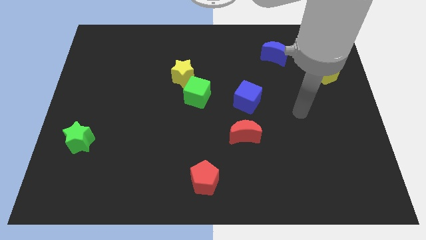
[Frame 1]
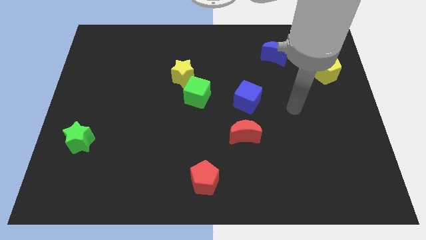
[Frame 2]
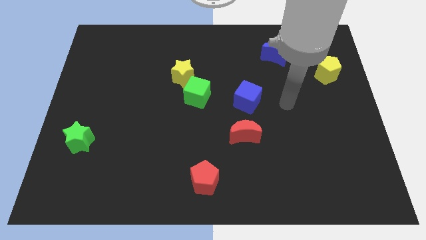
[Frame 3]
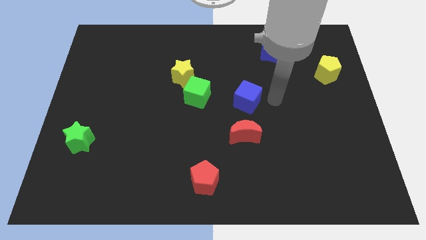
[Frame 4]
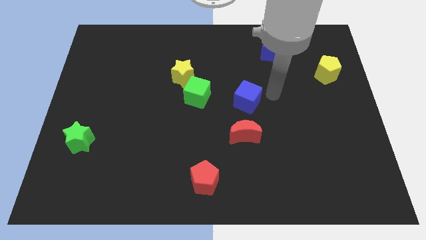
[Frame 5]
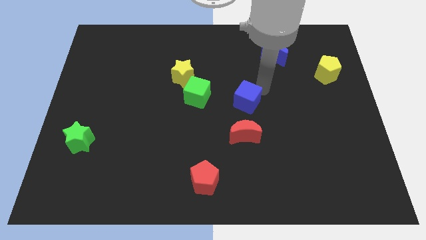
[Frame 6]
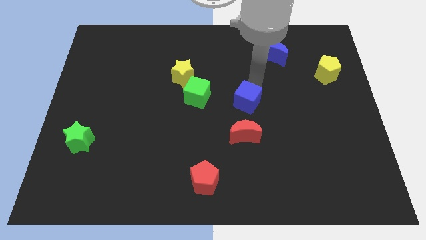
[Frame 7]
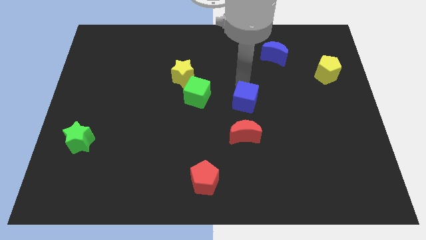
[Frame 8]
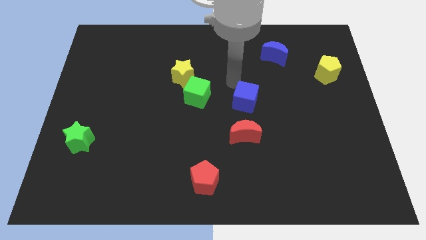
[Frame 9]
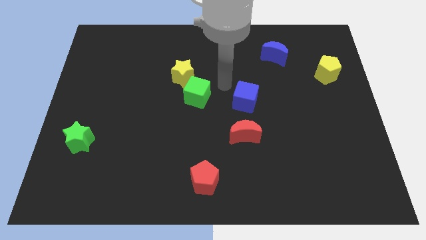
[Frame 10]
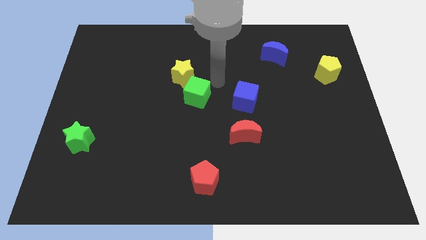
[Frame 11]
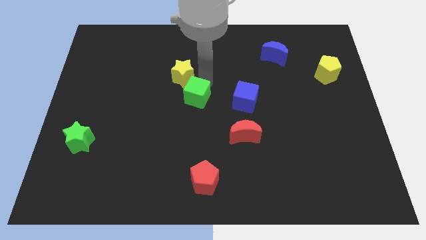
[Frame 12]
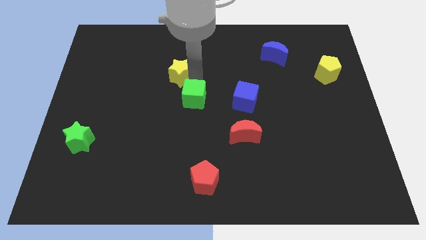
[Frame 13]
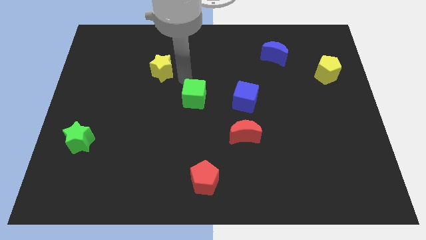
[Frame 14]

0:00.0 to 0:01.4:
pull the green cube apart from the yellow star

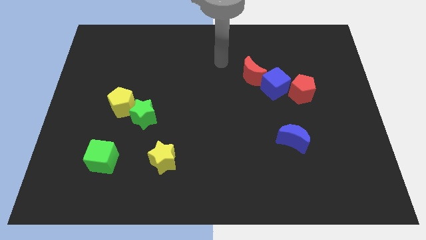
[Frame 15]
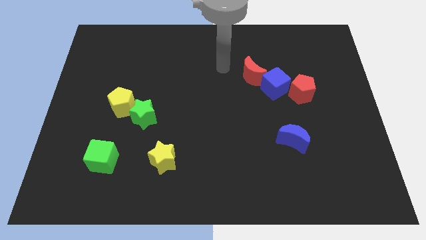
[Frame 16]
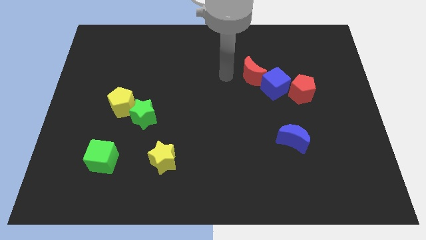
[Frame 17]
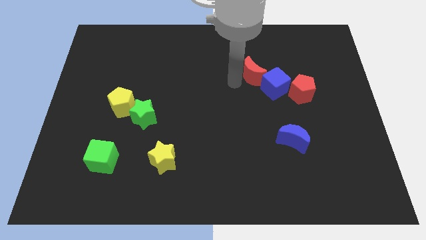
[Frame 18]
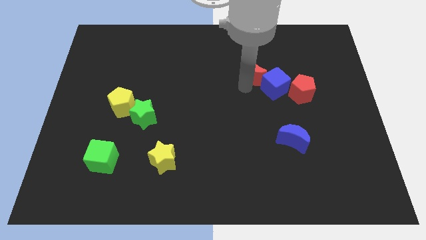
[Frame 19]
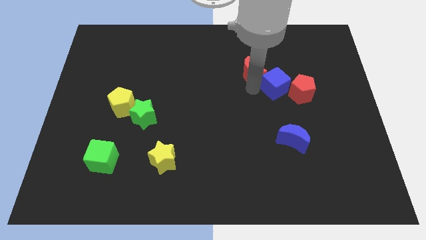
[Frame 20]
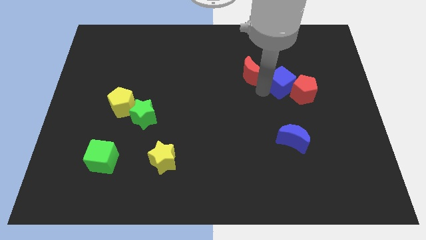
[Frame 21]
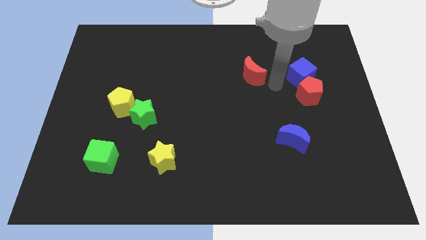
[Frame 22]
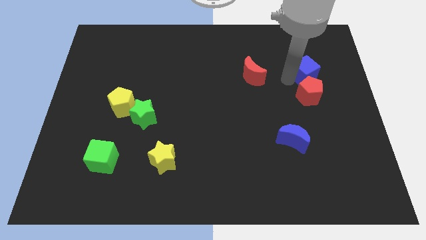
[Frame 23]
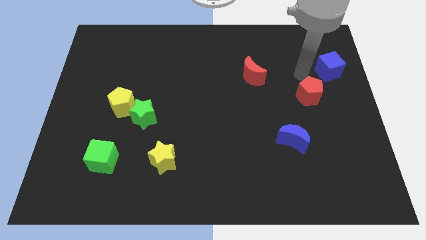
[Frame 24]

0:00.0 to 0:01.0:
separate the red pentagon from the blue cube

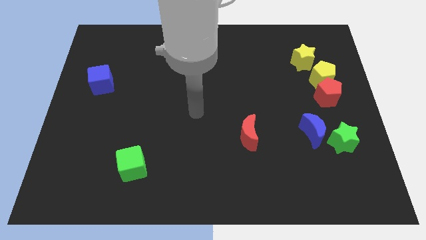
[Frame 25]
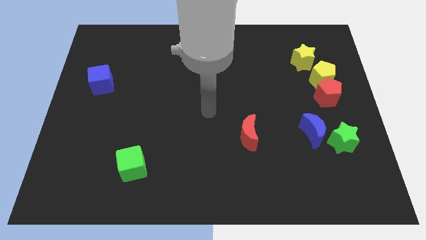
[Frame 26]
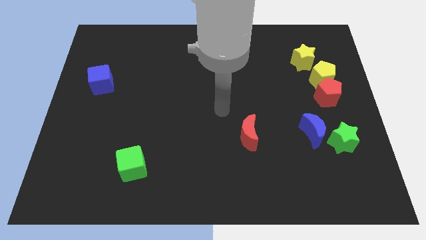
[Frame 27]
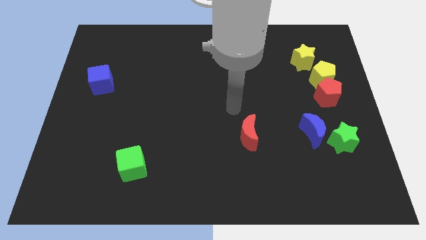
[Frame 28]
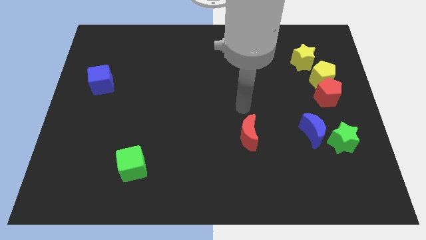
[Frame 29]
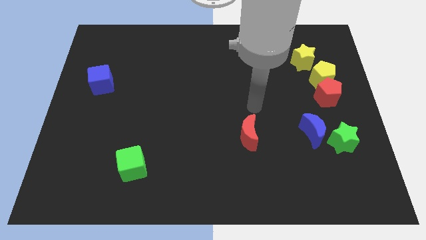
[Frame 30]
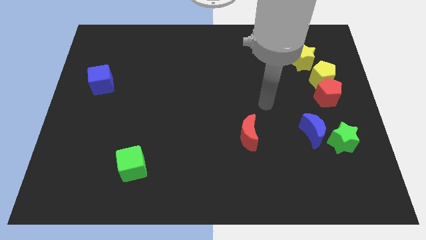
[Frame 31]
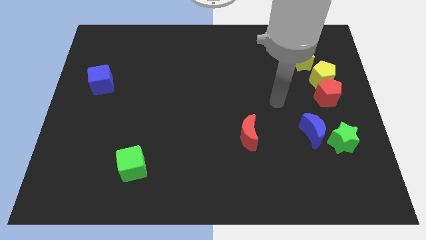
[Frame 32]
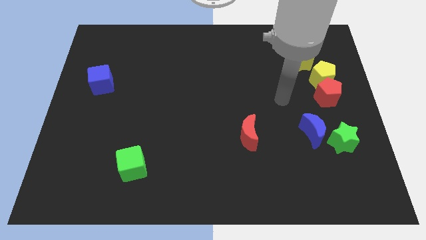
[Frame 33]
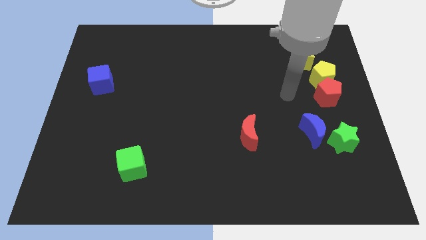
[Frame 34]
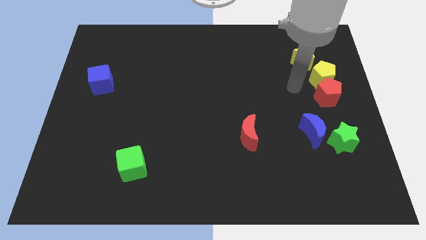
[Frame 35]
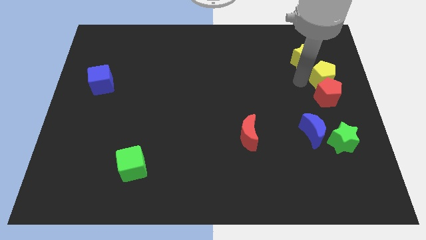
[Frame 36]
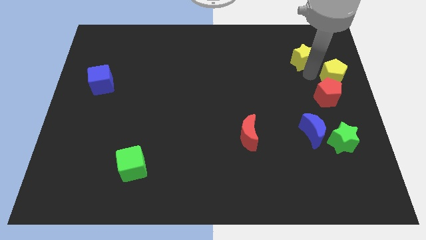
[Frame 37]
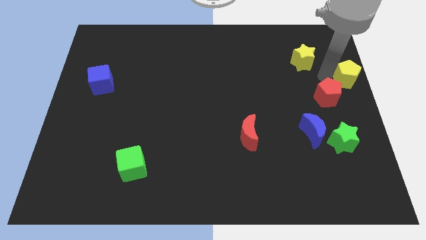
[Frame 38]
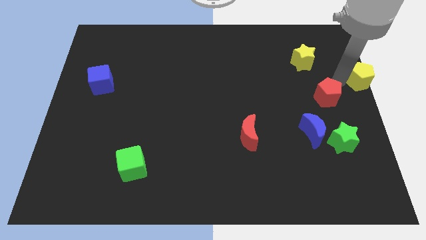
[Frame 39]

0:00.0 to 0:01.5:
pull the red pentagon apart from the yellow pentagon

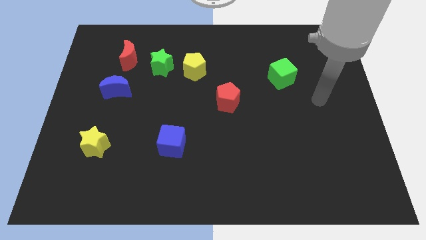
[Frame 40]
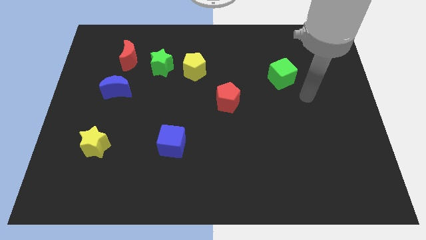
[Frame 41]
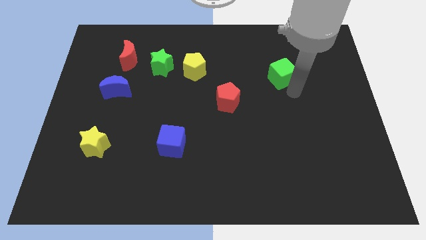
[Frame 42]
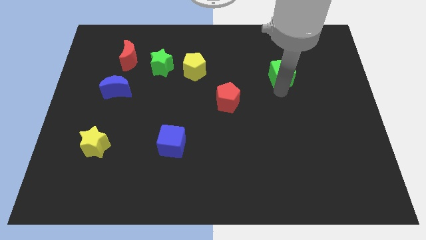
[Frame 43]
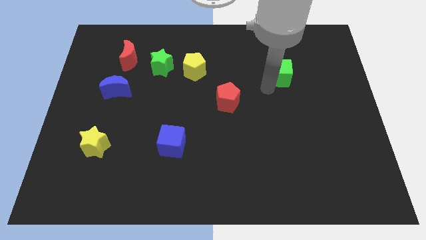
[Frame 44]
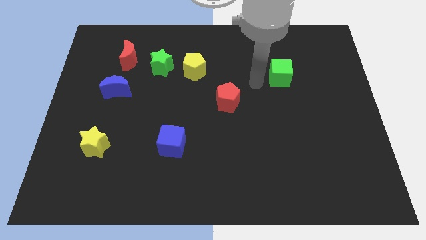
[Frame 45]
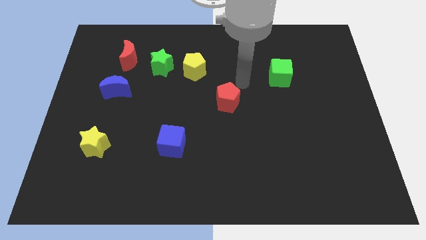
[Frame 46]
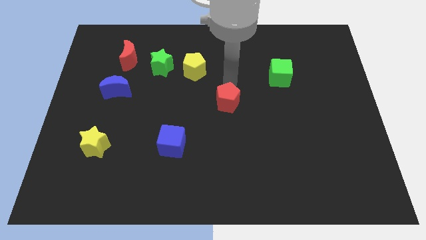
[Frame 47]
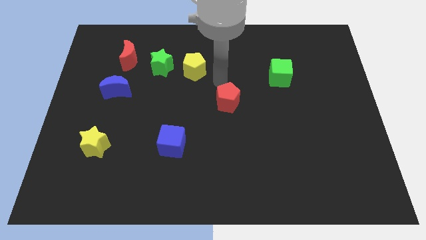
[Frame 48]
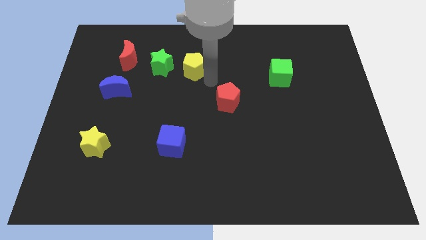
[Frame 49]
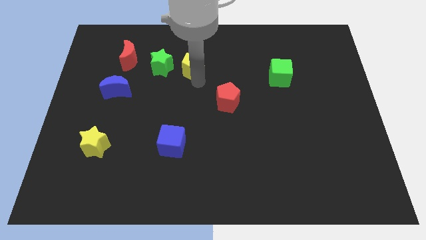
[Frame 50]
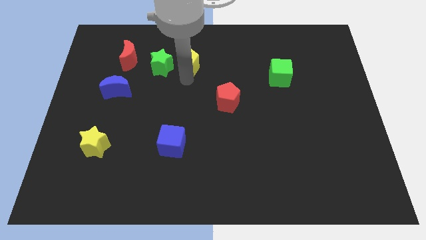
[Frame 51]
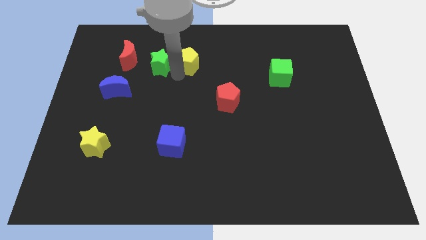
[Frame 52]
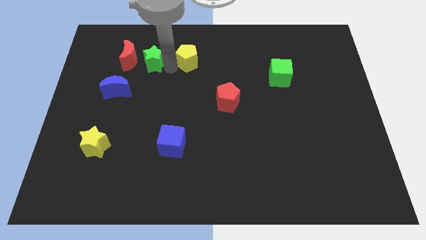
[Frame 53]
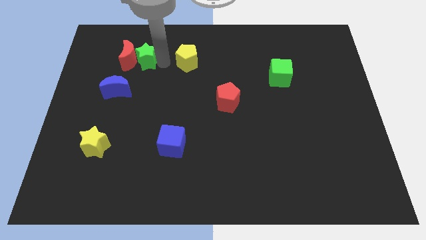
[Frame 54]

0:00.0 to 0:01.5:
separate the yellow pentagon from the green star

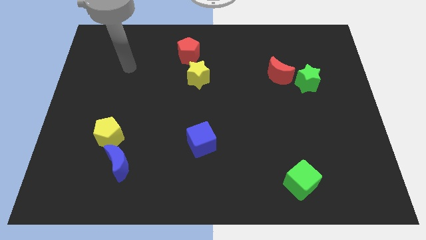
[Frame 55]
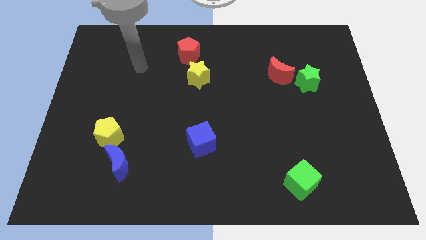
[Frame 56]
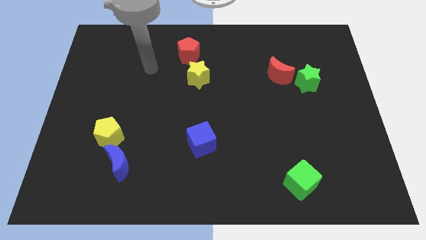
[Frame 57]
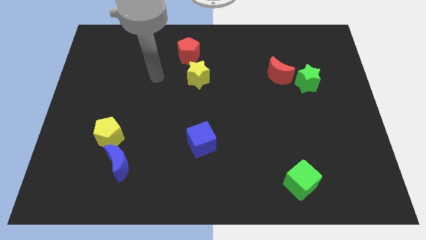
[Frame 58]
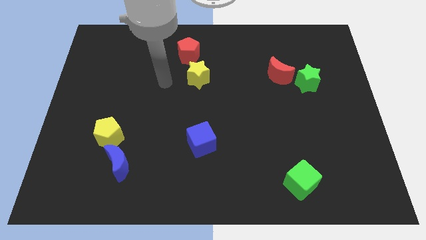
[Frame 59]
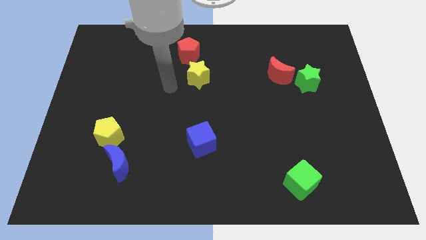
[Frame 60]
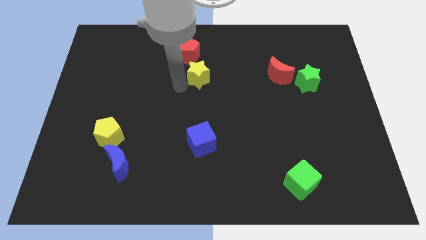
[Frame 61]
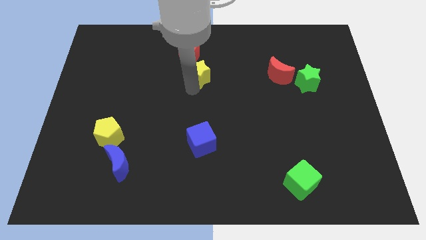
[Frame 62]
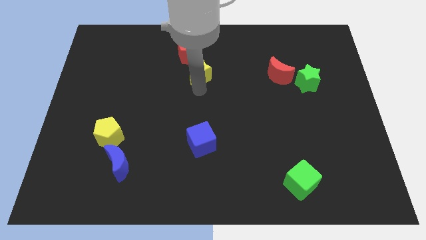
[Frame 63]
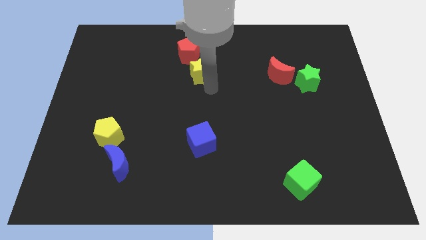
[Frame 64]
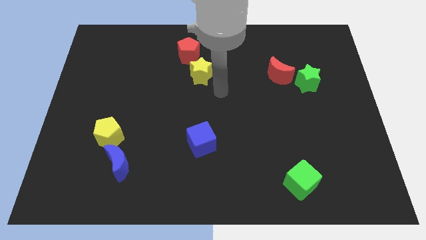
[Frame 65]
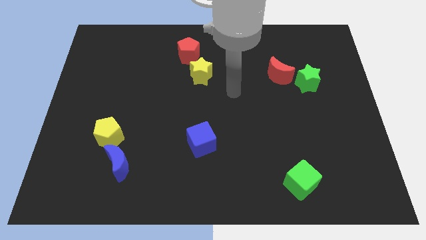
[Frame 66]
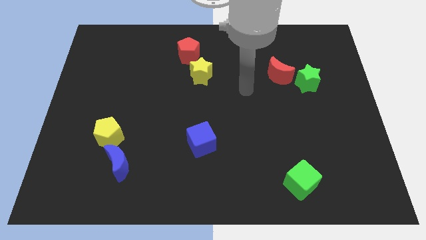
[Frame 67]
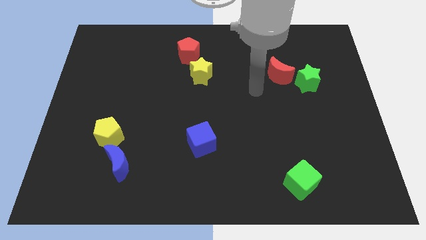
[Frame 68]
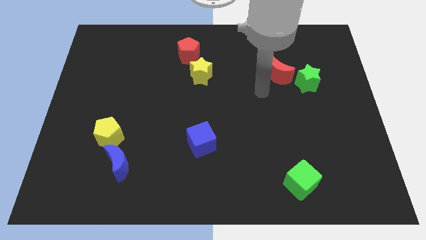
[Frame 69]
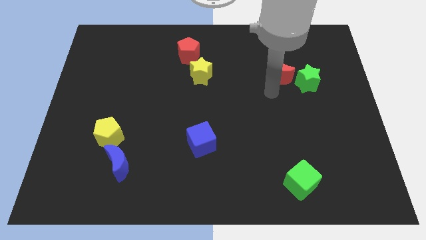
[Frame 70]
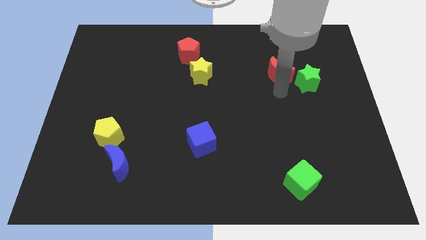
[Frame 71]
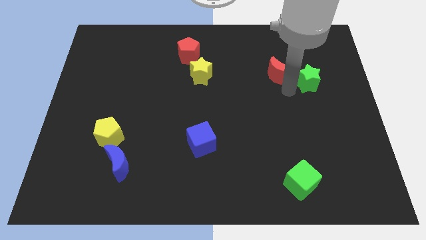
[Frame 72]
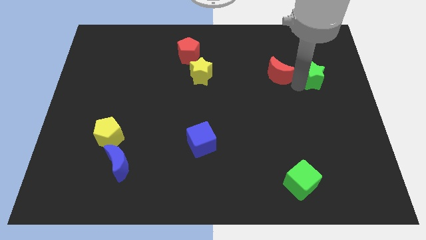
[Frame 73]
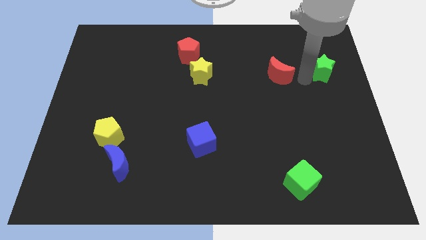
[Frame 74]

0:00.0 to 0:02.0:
separate the red moon from the green star

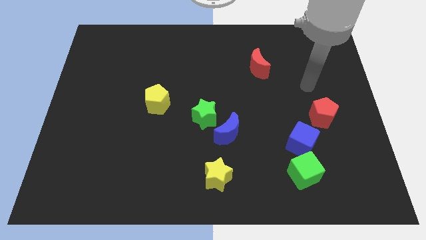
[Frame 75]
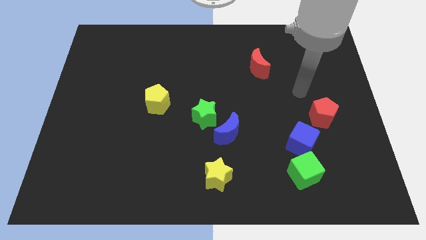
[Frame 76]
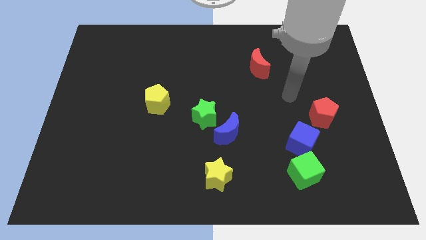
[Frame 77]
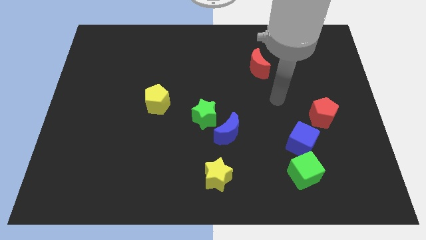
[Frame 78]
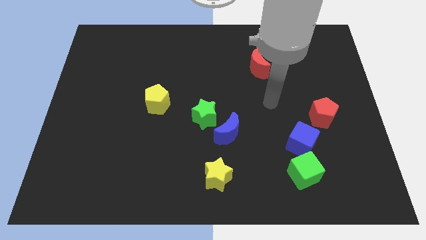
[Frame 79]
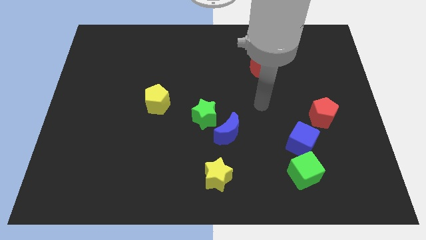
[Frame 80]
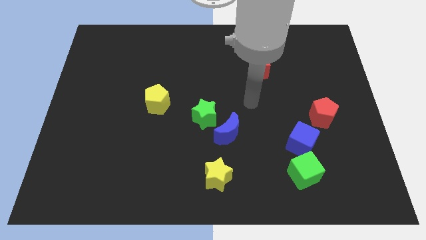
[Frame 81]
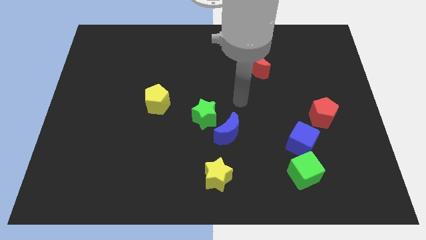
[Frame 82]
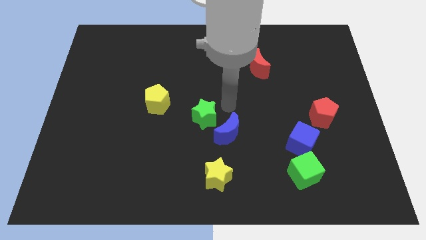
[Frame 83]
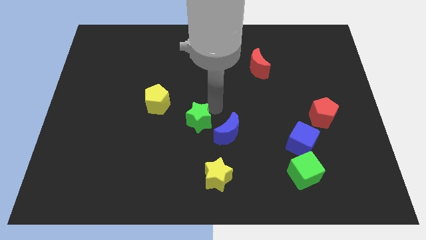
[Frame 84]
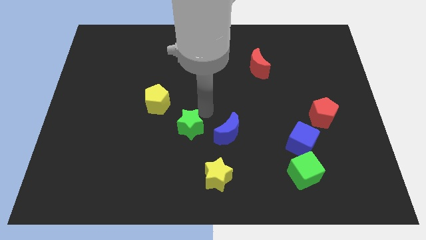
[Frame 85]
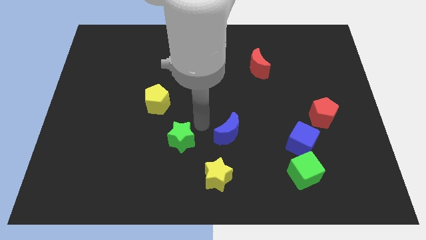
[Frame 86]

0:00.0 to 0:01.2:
separate the blue moon from the green star

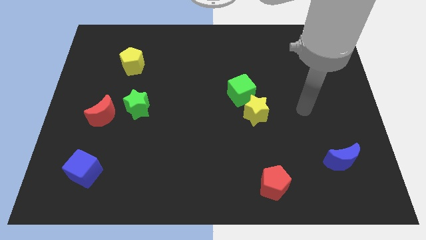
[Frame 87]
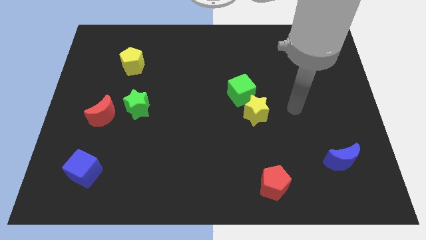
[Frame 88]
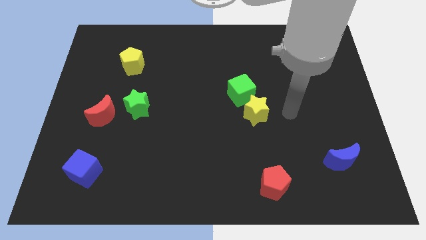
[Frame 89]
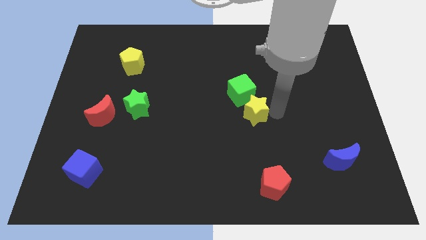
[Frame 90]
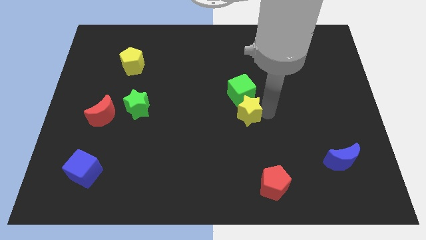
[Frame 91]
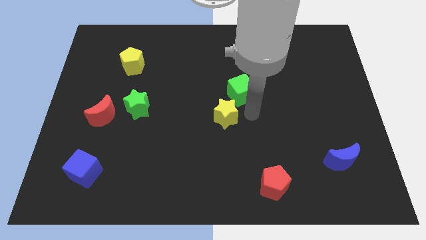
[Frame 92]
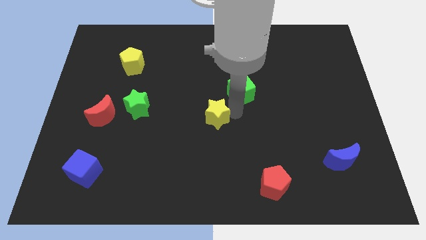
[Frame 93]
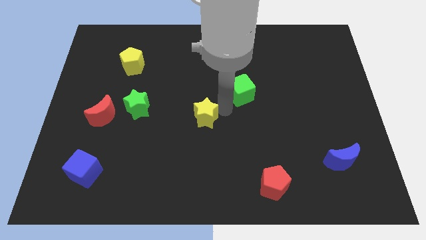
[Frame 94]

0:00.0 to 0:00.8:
separate the green cube from the yellow star
